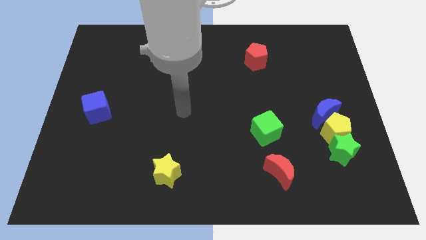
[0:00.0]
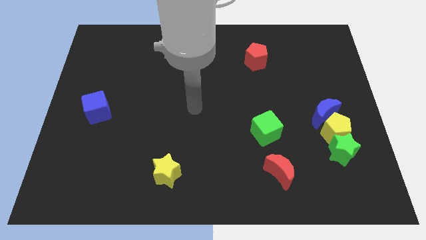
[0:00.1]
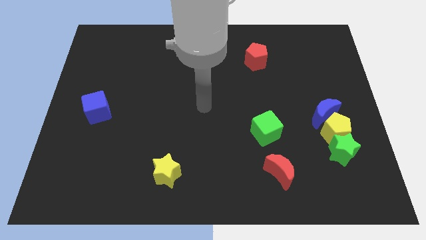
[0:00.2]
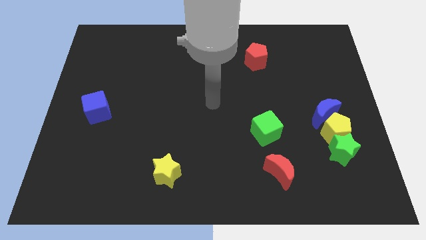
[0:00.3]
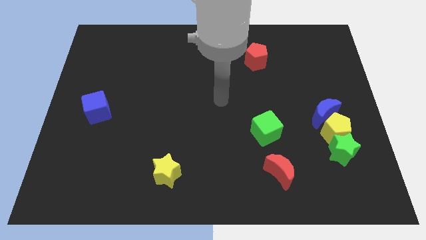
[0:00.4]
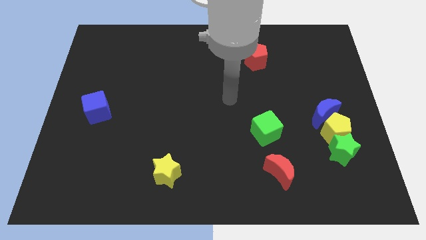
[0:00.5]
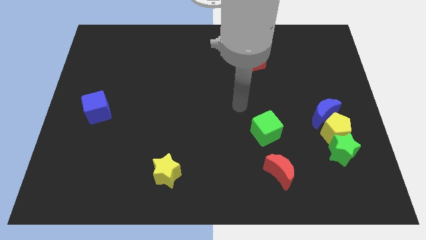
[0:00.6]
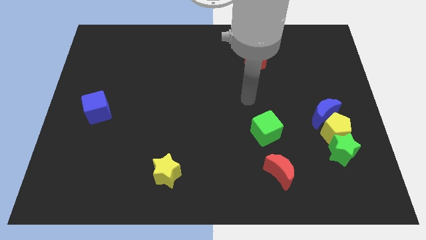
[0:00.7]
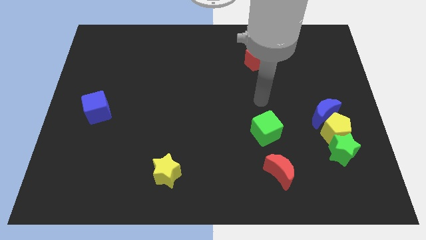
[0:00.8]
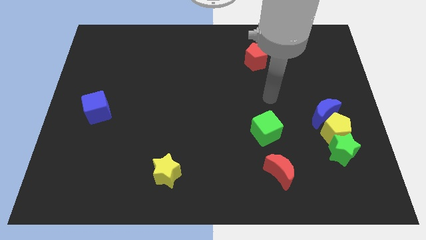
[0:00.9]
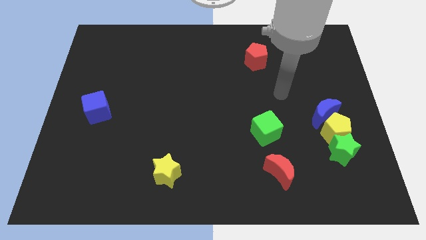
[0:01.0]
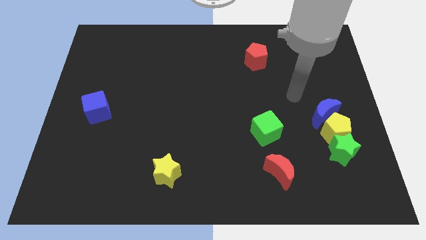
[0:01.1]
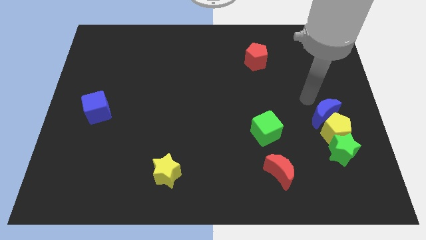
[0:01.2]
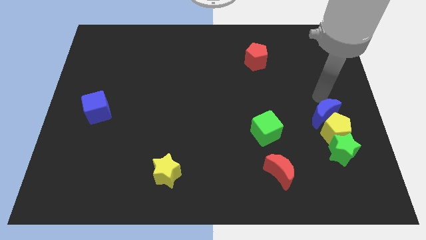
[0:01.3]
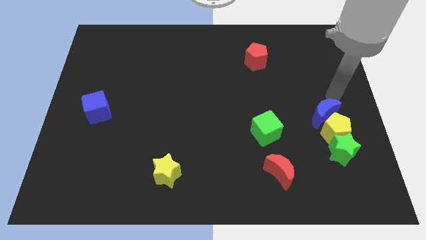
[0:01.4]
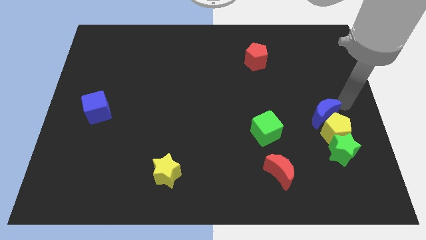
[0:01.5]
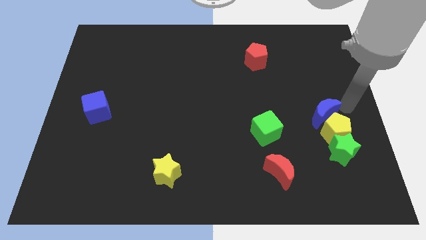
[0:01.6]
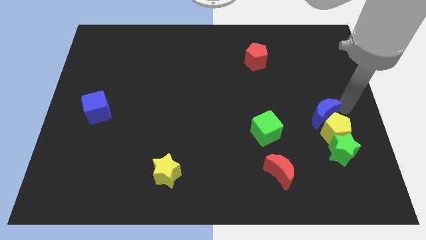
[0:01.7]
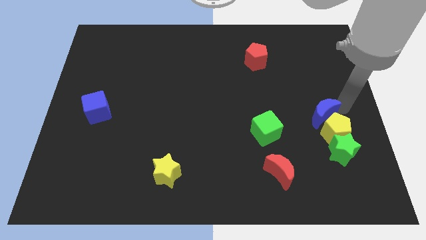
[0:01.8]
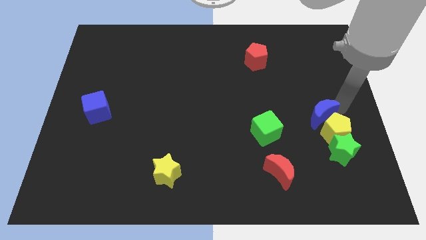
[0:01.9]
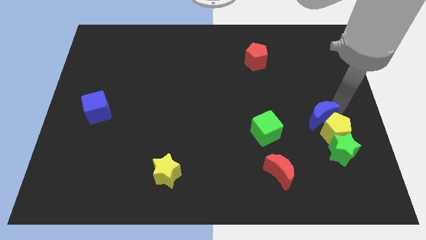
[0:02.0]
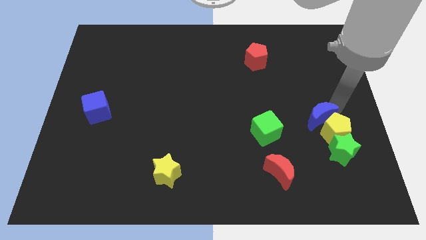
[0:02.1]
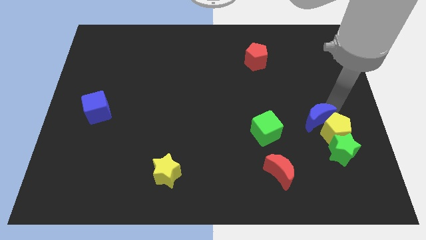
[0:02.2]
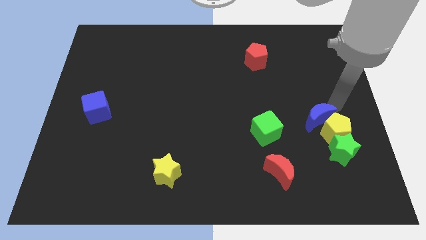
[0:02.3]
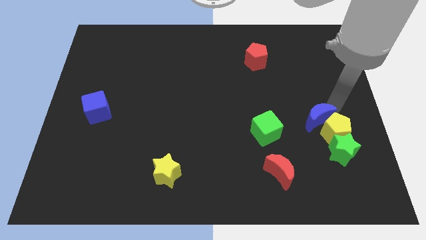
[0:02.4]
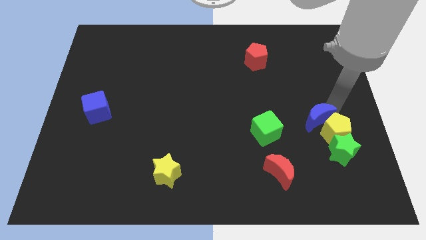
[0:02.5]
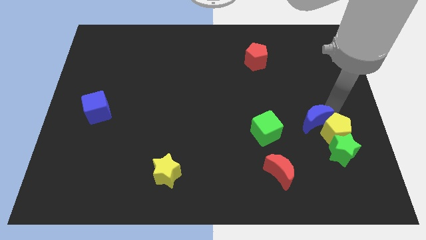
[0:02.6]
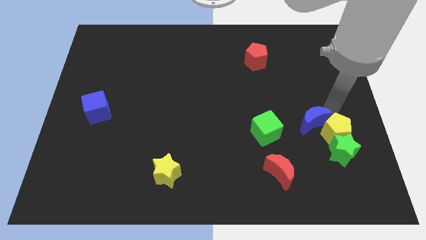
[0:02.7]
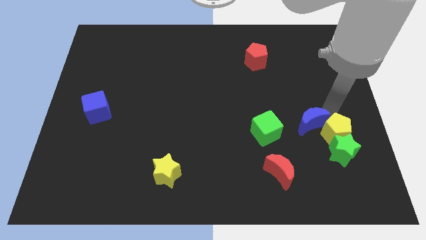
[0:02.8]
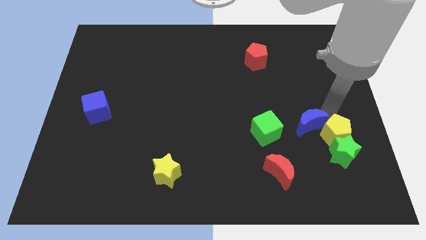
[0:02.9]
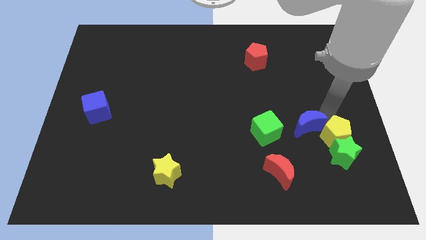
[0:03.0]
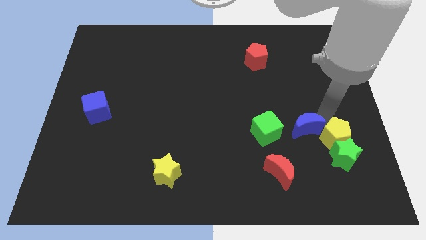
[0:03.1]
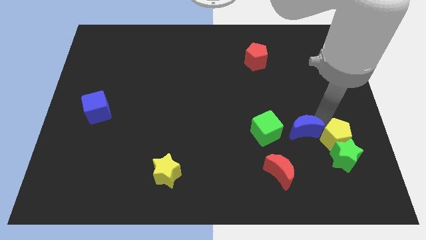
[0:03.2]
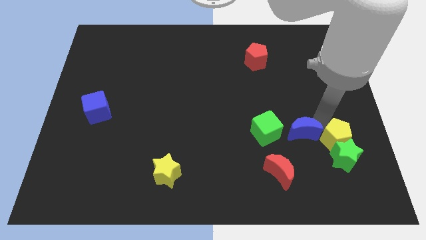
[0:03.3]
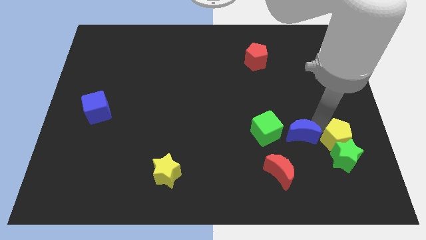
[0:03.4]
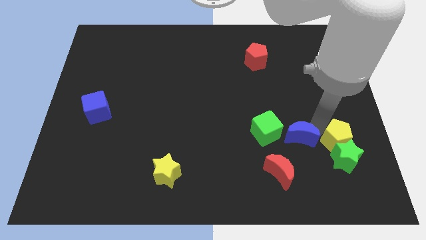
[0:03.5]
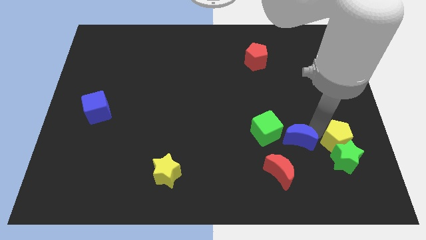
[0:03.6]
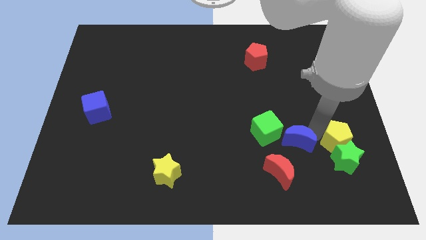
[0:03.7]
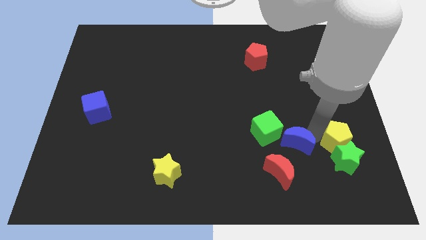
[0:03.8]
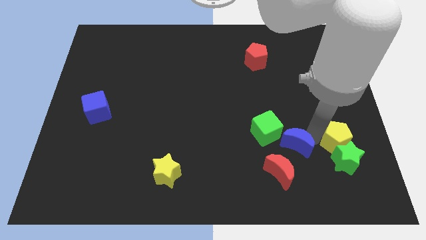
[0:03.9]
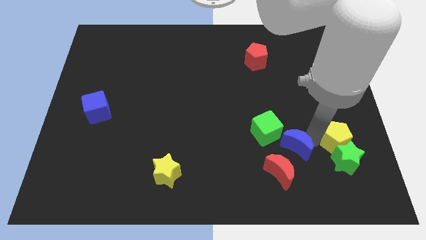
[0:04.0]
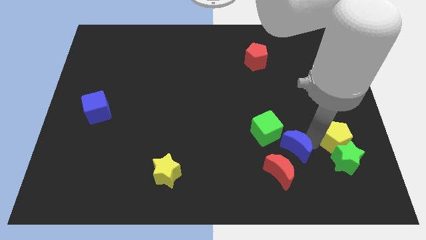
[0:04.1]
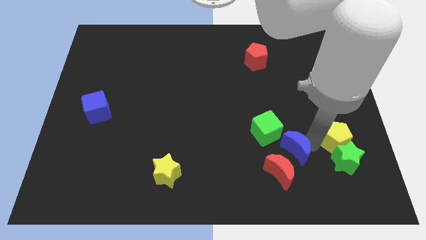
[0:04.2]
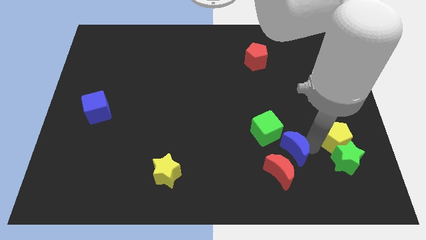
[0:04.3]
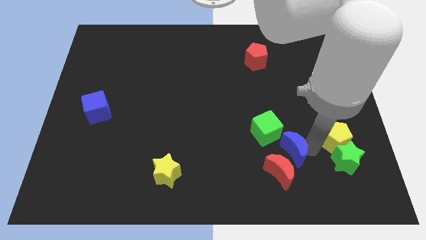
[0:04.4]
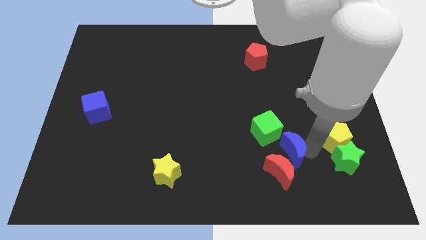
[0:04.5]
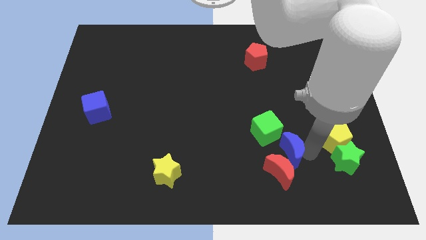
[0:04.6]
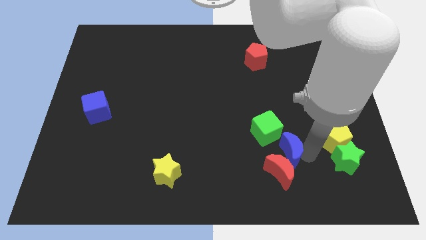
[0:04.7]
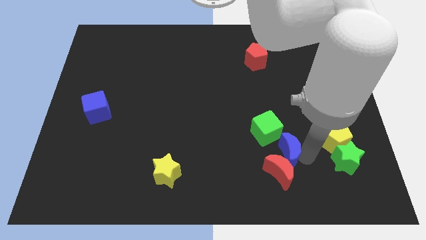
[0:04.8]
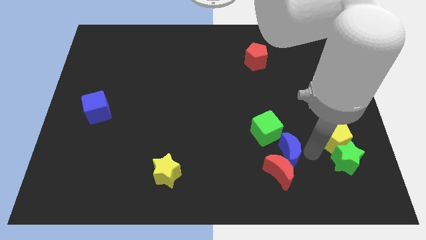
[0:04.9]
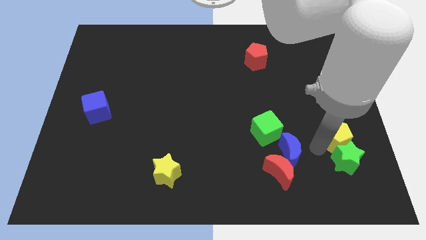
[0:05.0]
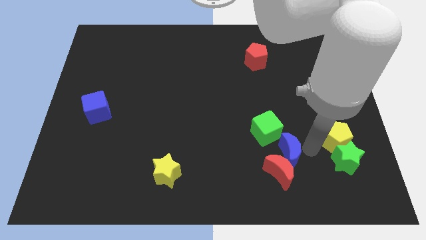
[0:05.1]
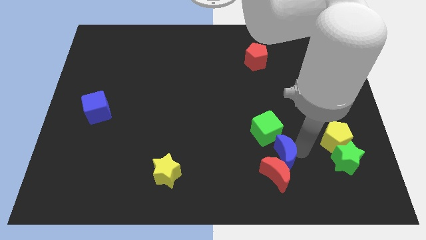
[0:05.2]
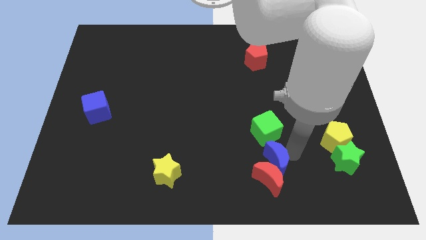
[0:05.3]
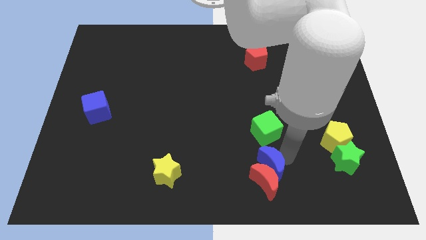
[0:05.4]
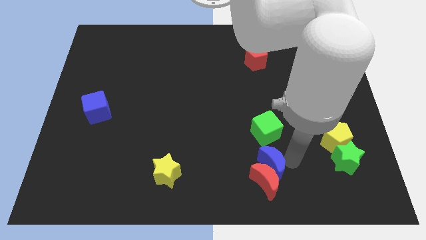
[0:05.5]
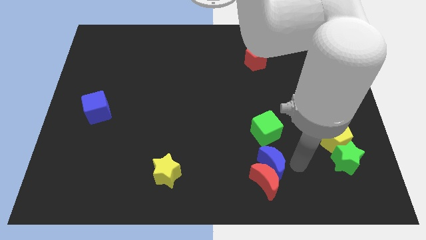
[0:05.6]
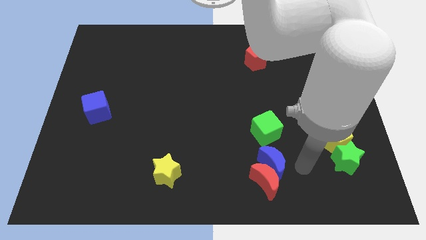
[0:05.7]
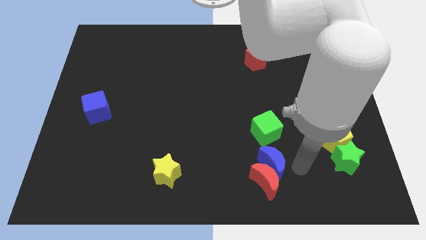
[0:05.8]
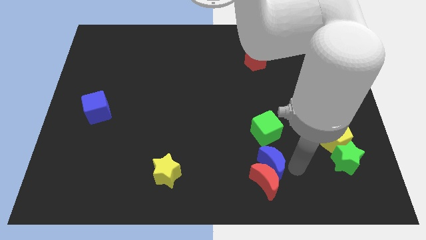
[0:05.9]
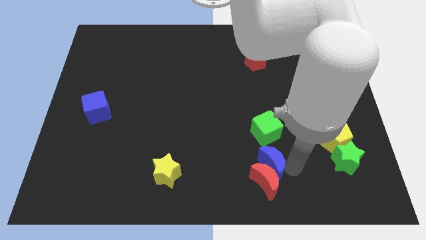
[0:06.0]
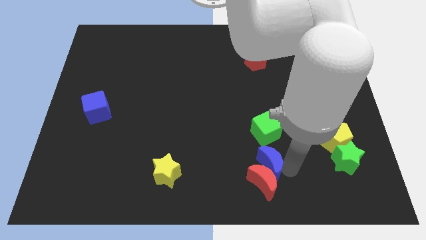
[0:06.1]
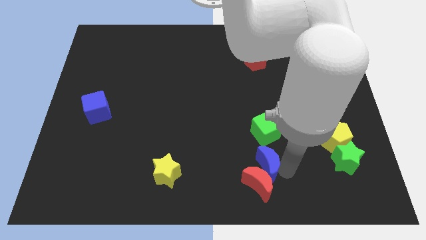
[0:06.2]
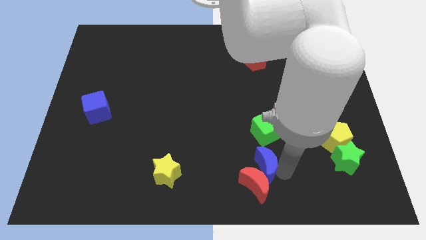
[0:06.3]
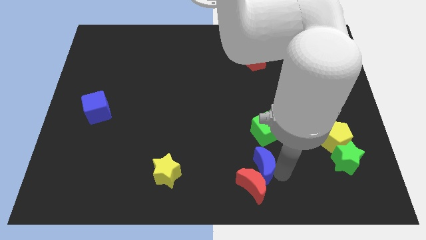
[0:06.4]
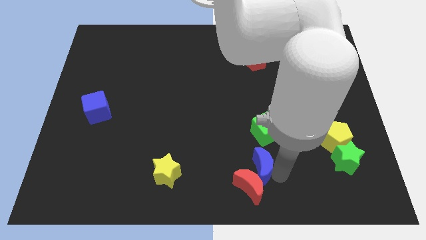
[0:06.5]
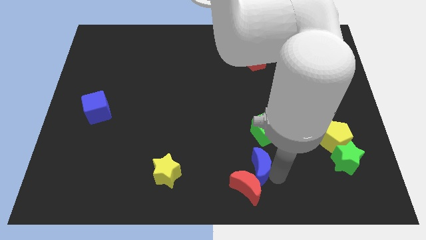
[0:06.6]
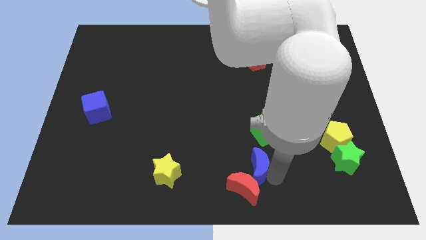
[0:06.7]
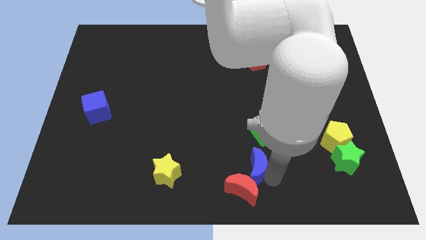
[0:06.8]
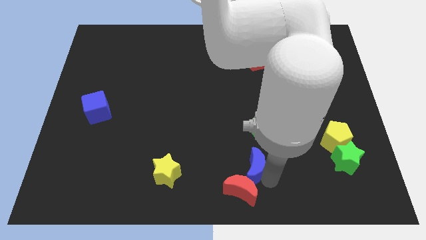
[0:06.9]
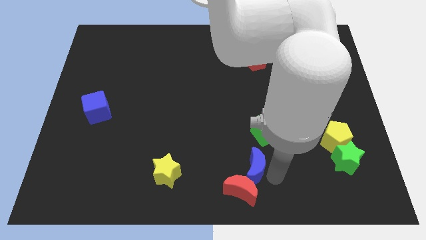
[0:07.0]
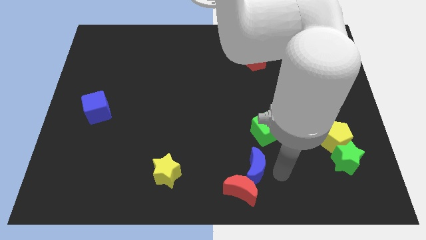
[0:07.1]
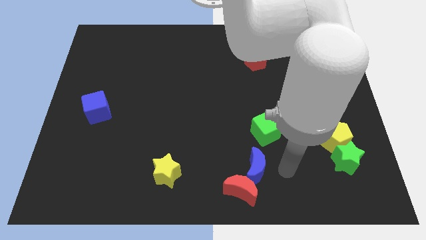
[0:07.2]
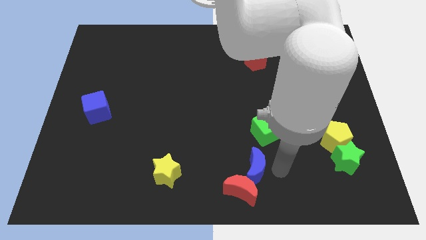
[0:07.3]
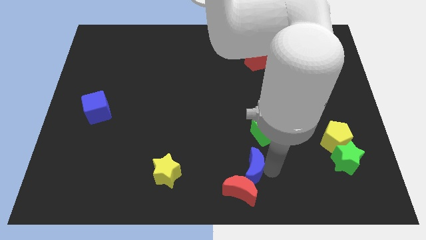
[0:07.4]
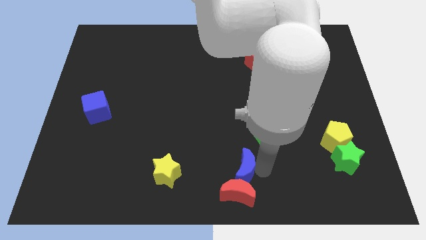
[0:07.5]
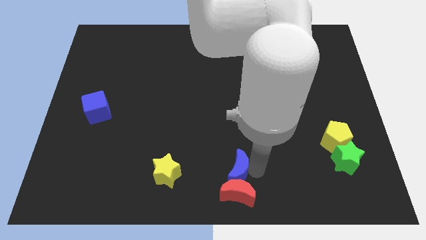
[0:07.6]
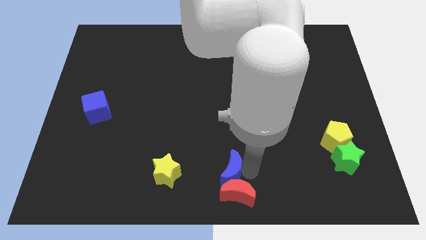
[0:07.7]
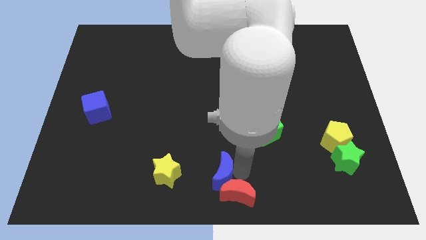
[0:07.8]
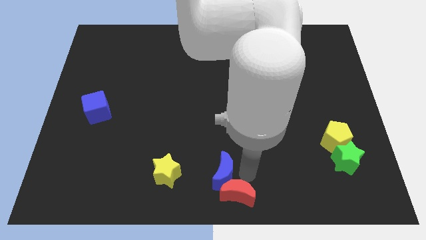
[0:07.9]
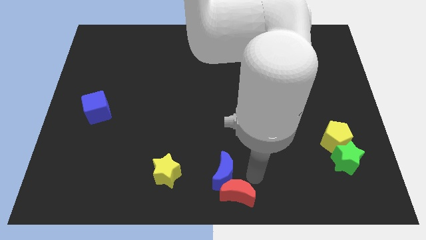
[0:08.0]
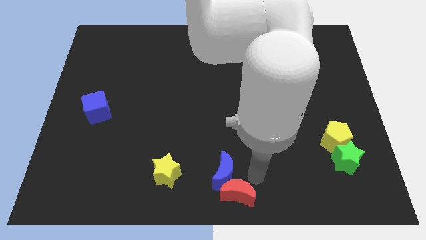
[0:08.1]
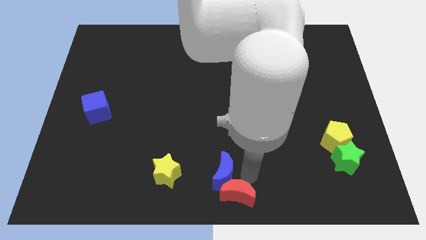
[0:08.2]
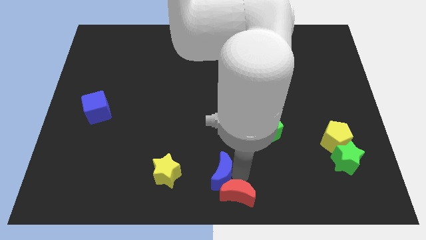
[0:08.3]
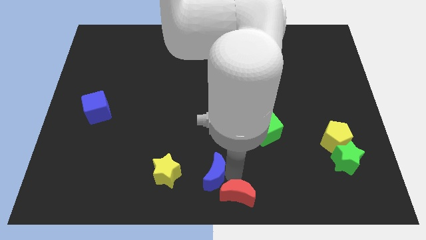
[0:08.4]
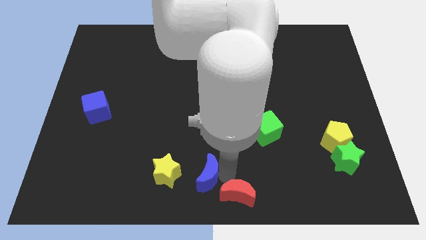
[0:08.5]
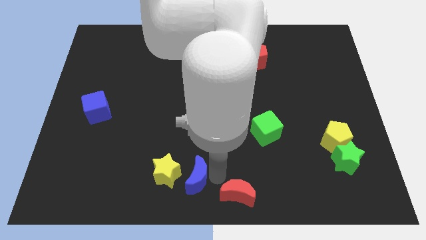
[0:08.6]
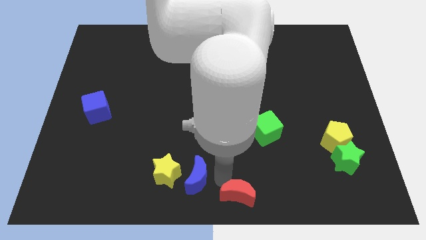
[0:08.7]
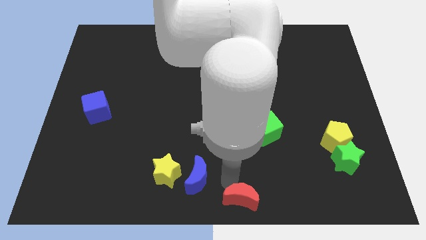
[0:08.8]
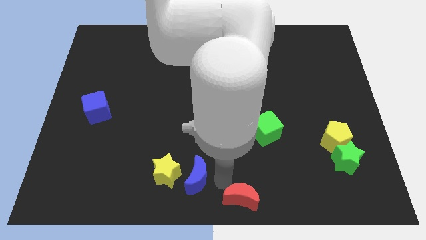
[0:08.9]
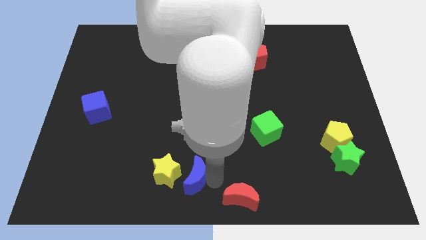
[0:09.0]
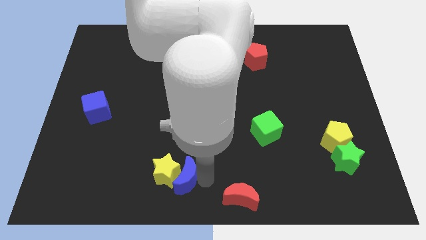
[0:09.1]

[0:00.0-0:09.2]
push the blue moon towards the yellow star
